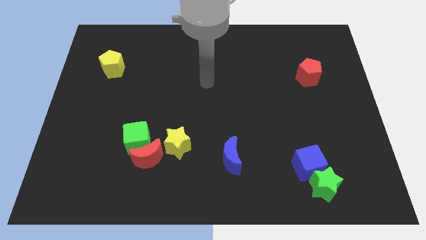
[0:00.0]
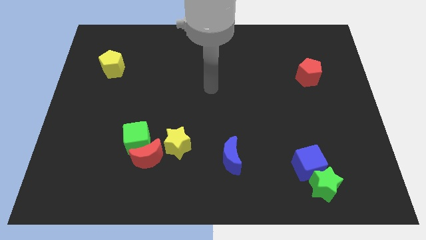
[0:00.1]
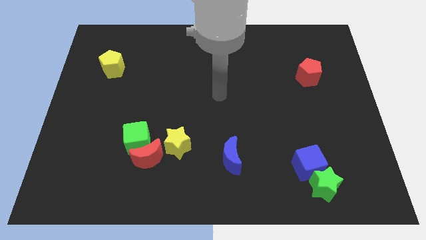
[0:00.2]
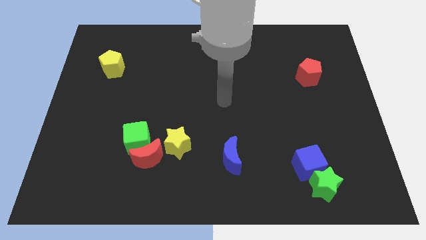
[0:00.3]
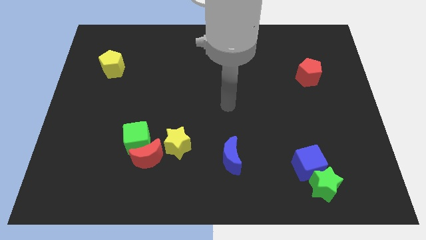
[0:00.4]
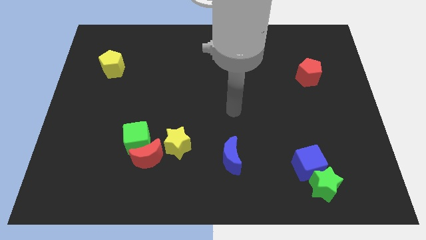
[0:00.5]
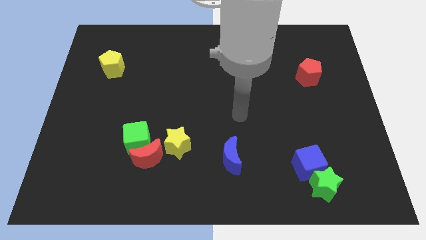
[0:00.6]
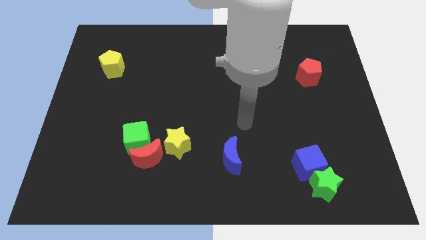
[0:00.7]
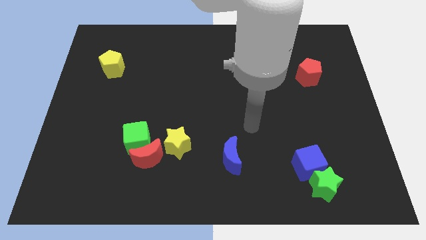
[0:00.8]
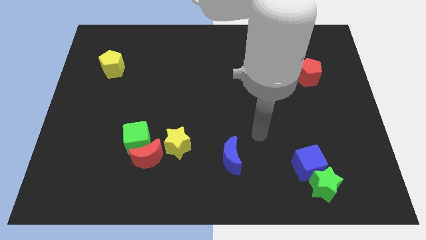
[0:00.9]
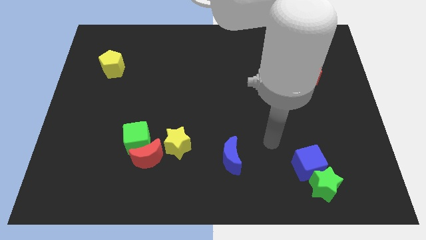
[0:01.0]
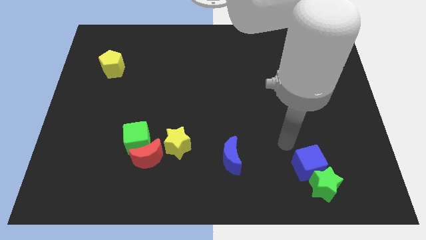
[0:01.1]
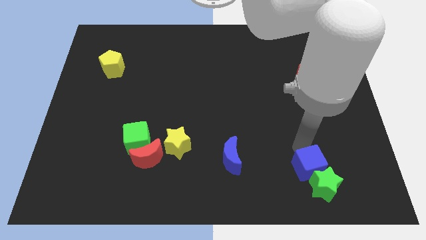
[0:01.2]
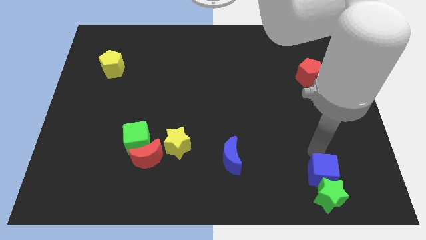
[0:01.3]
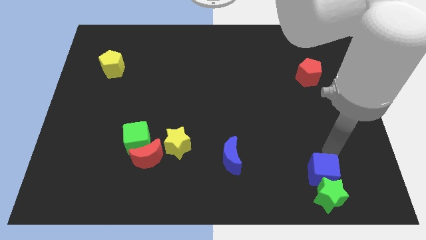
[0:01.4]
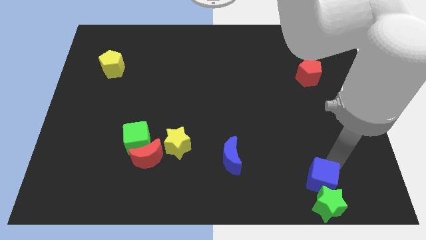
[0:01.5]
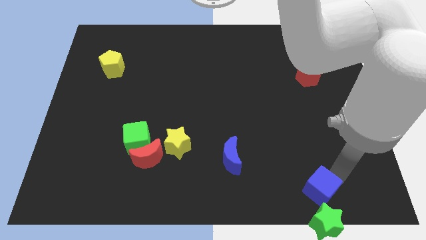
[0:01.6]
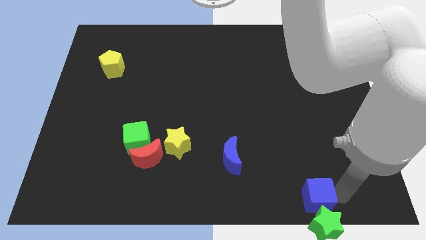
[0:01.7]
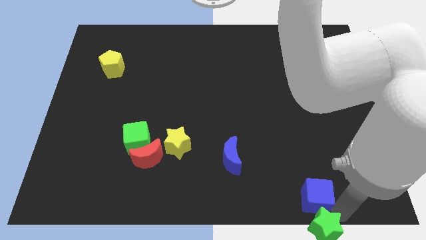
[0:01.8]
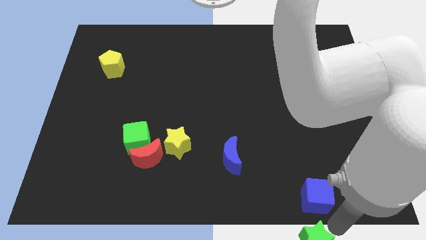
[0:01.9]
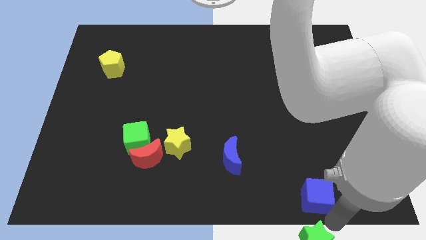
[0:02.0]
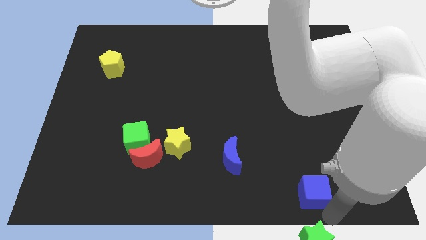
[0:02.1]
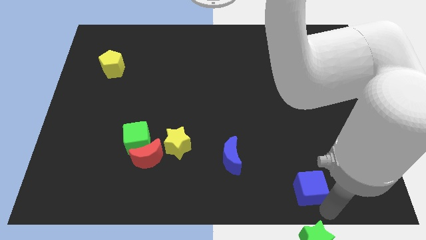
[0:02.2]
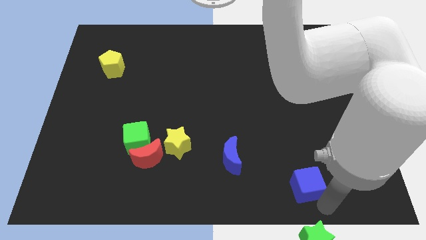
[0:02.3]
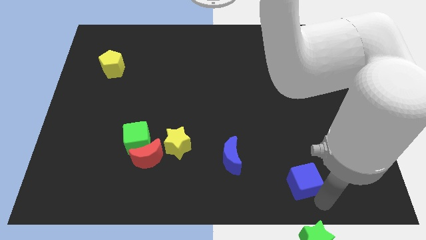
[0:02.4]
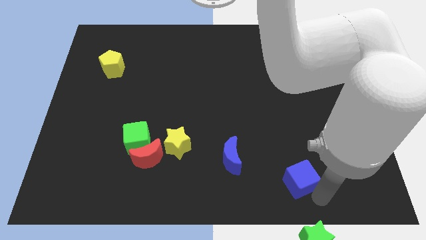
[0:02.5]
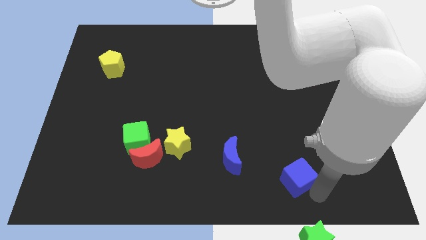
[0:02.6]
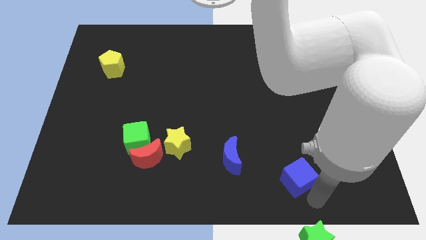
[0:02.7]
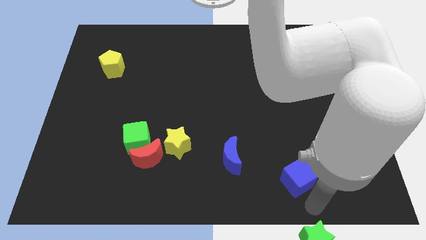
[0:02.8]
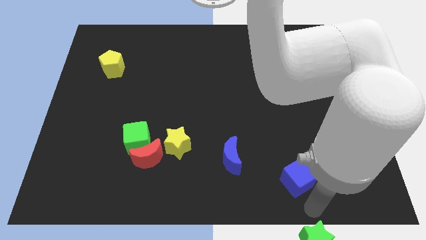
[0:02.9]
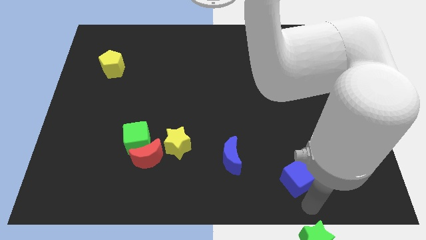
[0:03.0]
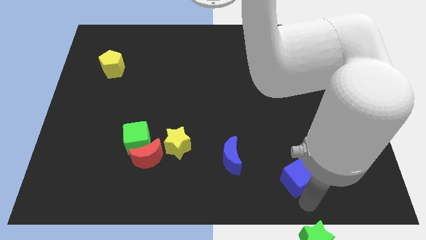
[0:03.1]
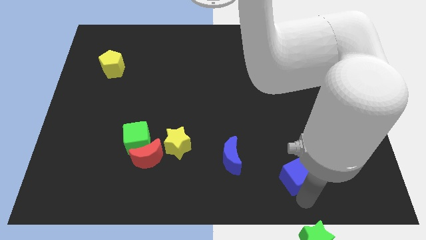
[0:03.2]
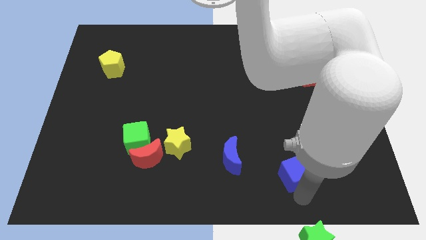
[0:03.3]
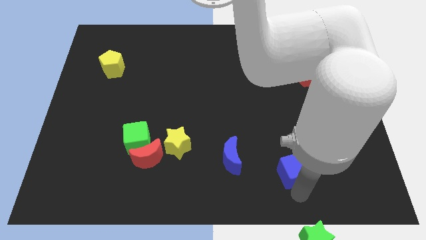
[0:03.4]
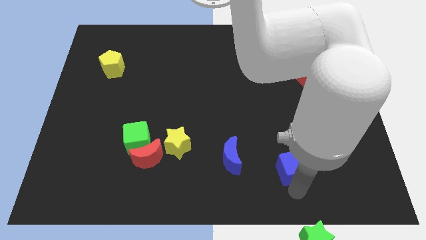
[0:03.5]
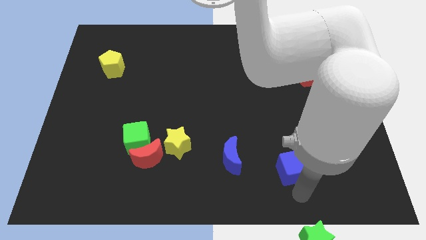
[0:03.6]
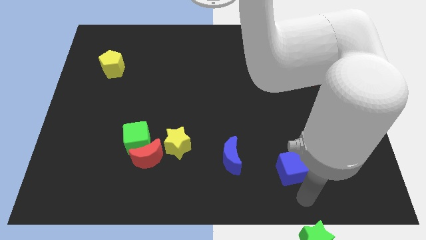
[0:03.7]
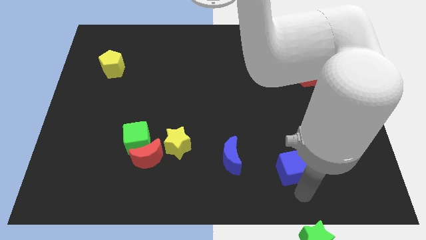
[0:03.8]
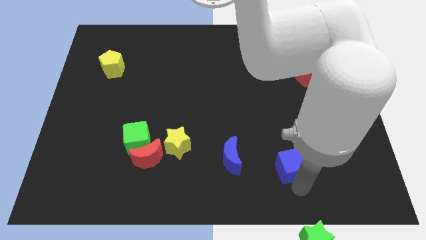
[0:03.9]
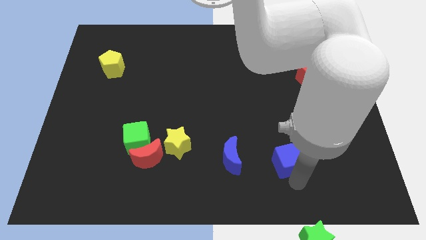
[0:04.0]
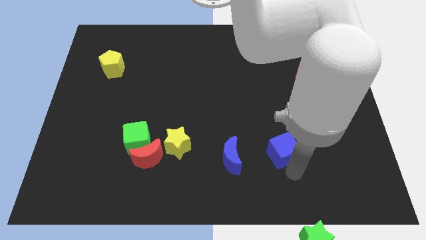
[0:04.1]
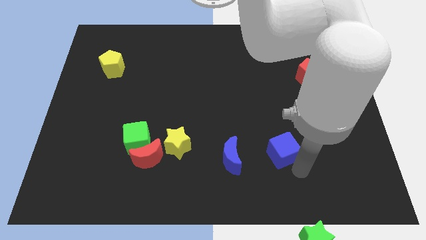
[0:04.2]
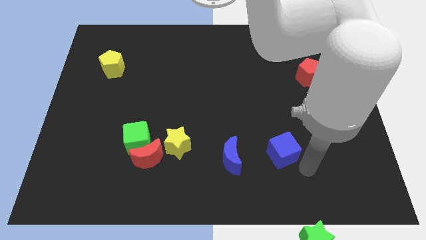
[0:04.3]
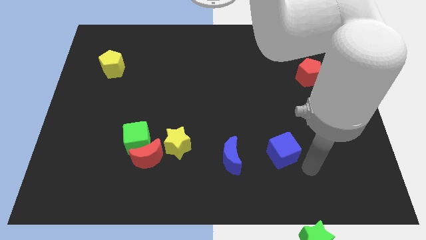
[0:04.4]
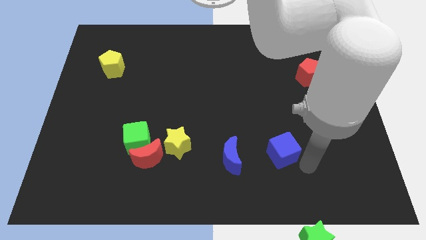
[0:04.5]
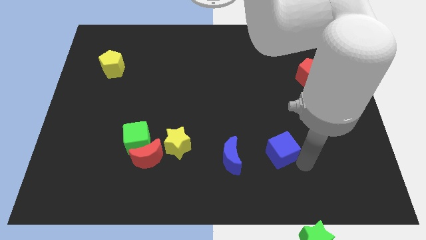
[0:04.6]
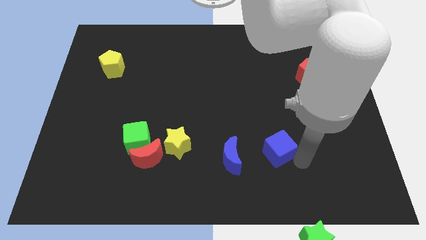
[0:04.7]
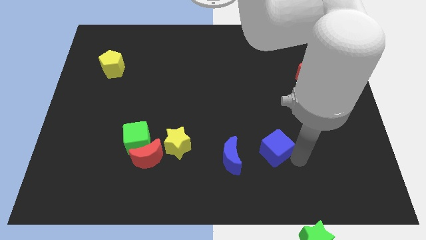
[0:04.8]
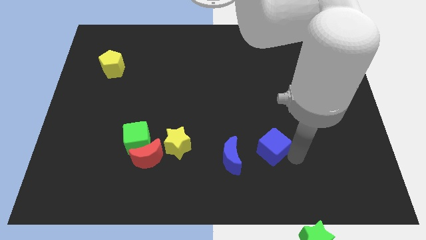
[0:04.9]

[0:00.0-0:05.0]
slide the blue cube to the top right side of the blue moon

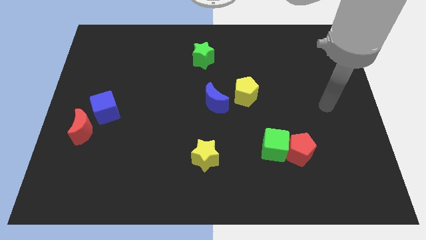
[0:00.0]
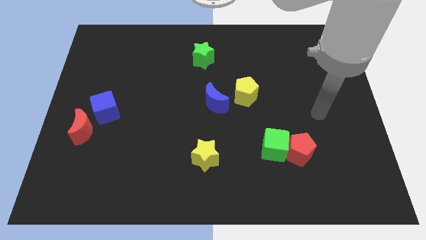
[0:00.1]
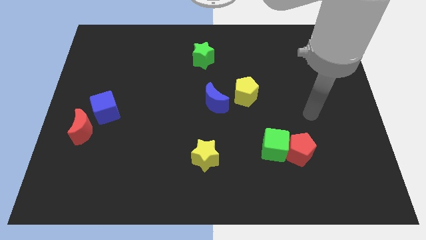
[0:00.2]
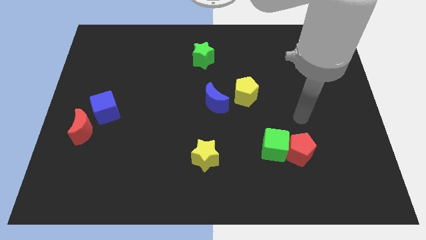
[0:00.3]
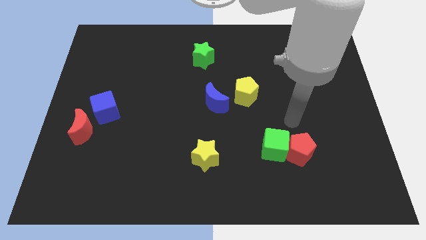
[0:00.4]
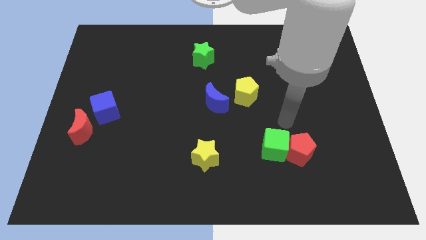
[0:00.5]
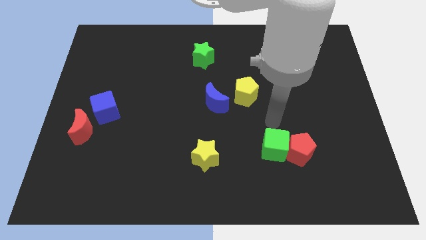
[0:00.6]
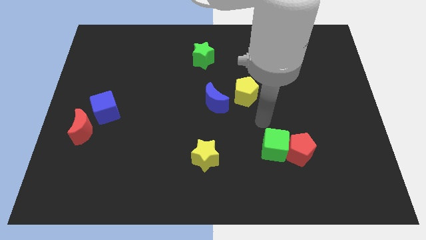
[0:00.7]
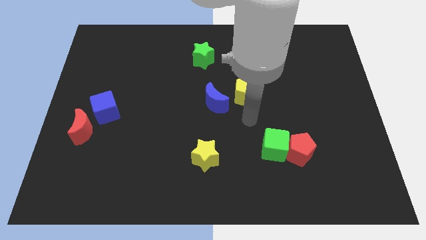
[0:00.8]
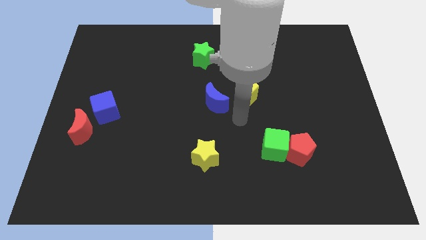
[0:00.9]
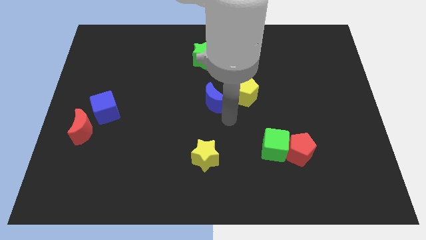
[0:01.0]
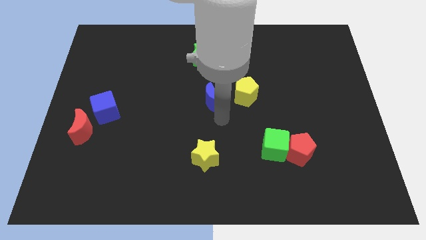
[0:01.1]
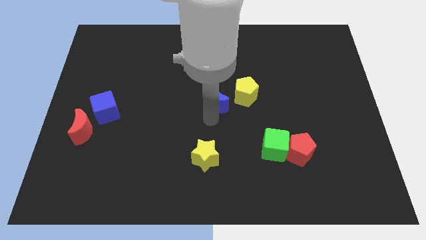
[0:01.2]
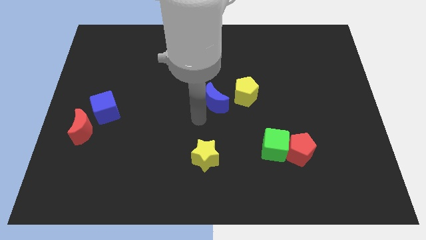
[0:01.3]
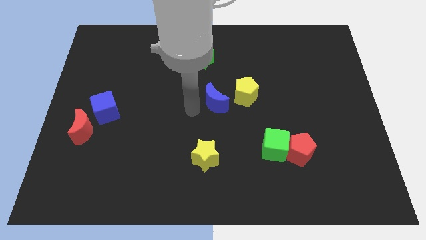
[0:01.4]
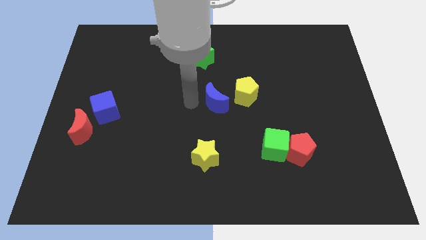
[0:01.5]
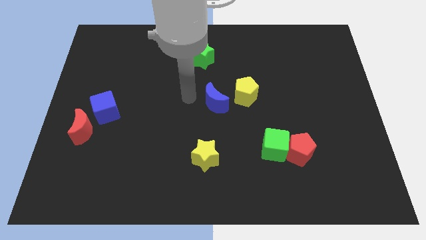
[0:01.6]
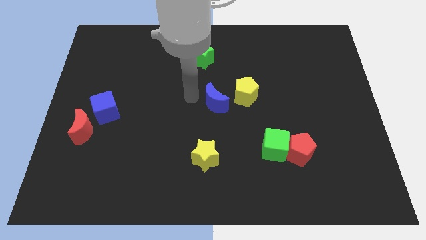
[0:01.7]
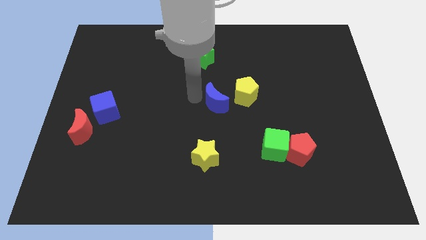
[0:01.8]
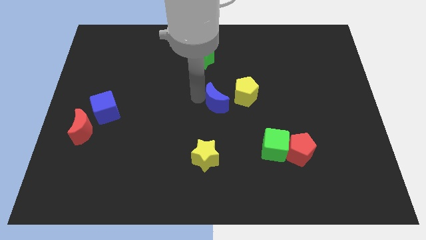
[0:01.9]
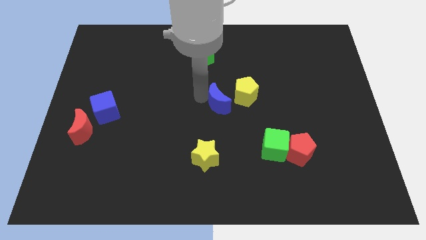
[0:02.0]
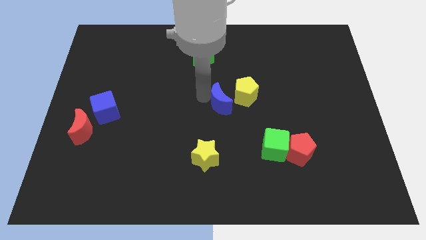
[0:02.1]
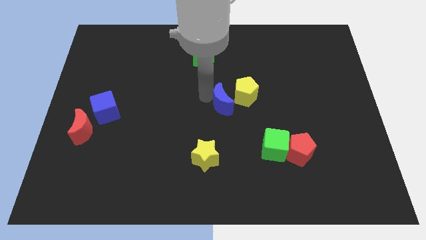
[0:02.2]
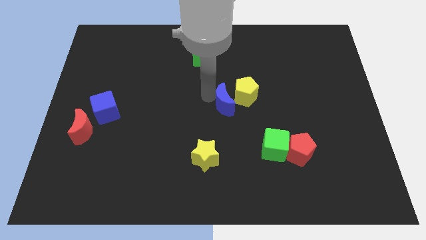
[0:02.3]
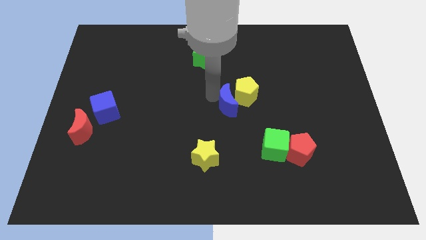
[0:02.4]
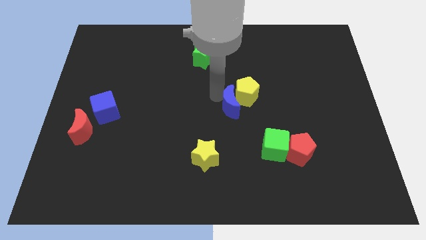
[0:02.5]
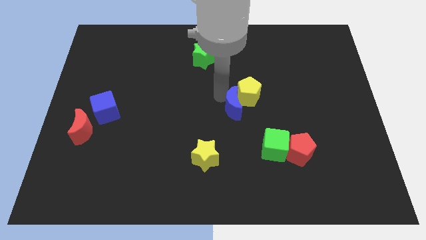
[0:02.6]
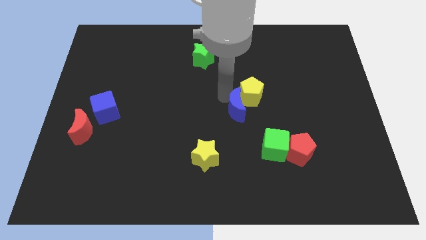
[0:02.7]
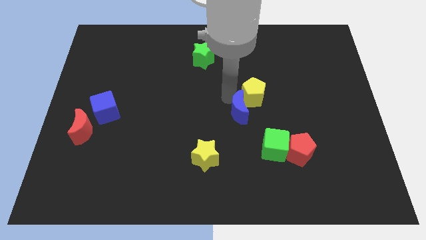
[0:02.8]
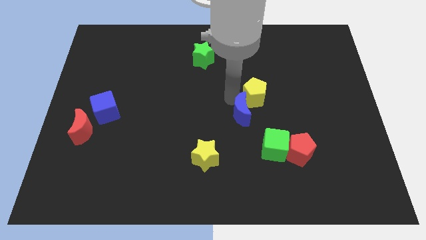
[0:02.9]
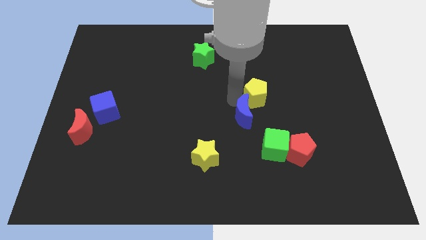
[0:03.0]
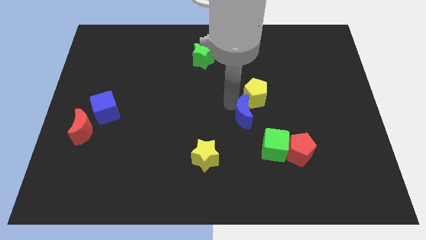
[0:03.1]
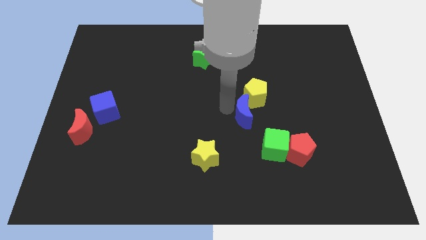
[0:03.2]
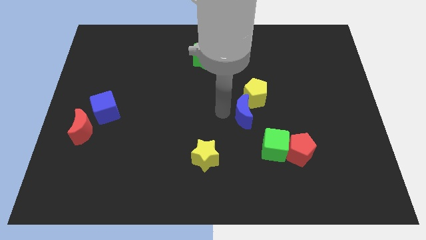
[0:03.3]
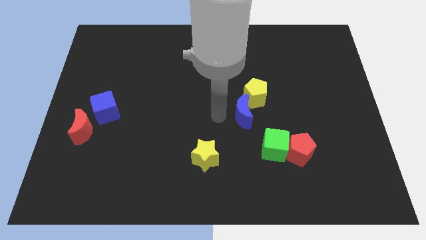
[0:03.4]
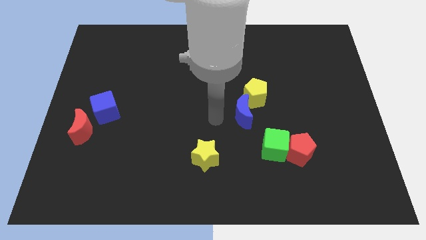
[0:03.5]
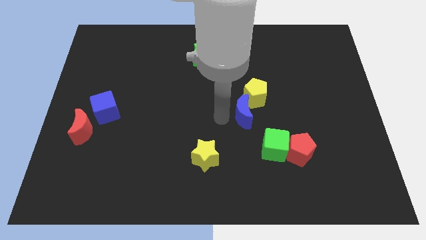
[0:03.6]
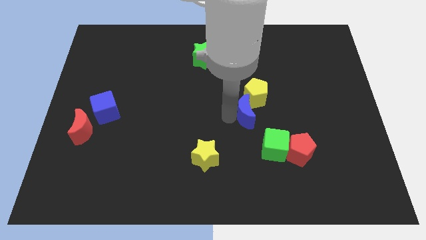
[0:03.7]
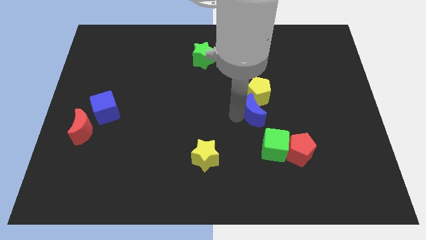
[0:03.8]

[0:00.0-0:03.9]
slide the blue moon to the top of the green cube
